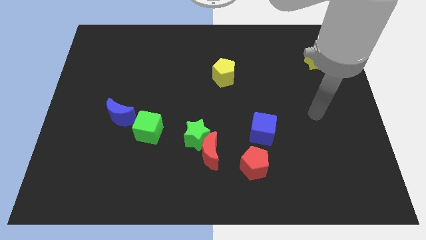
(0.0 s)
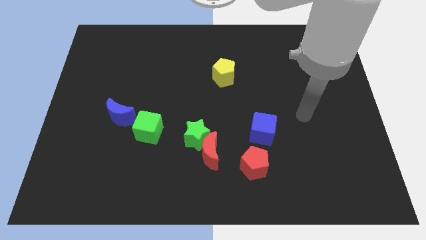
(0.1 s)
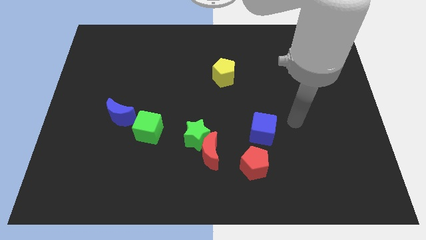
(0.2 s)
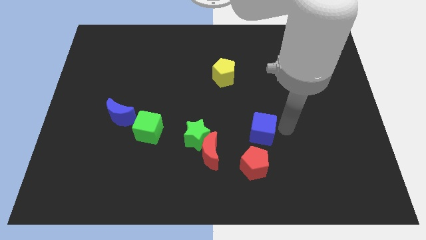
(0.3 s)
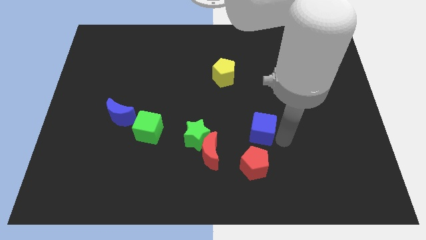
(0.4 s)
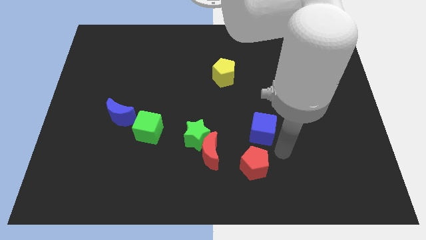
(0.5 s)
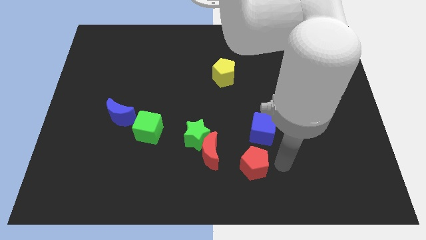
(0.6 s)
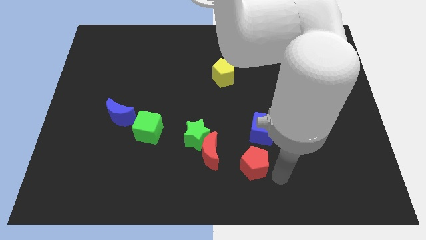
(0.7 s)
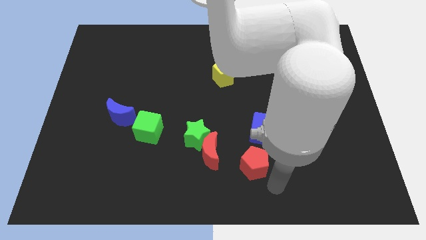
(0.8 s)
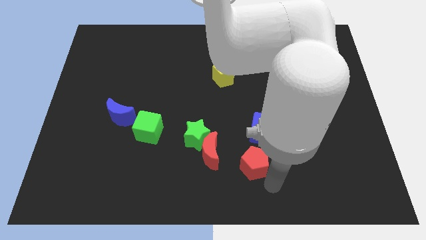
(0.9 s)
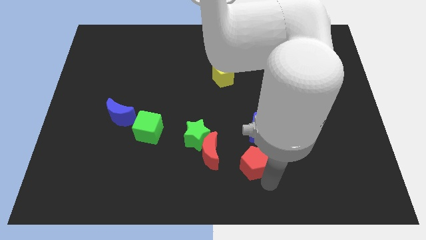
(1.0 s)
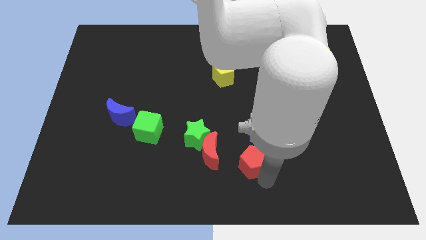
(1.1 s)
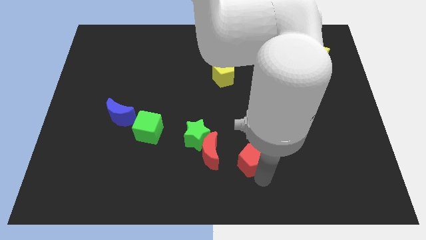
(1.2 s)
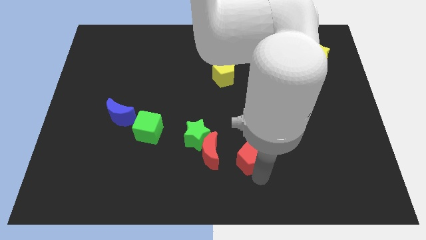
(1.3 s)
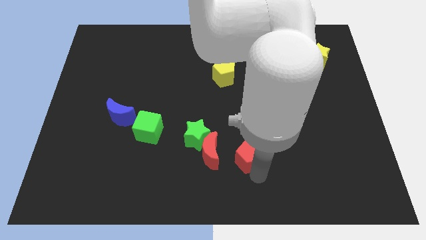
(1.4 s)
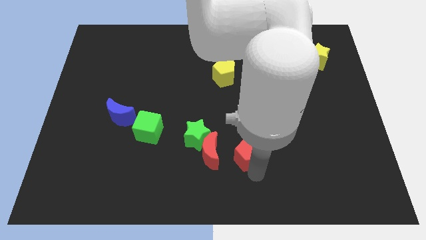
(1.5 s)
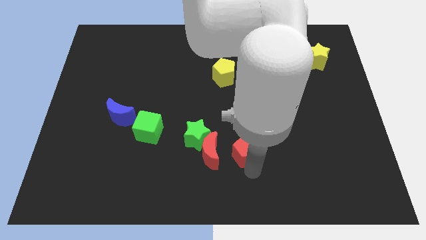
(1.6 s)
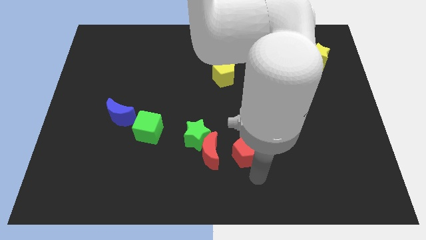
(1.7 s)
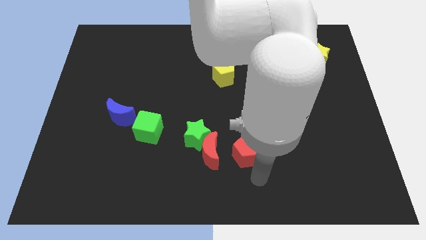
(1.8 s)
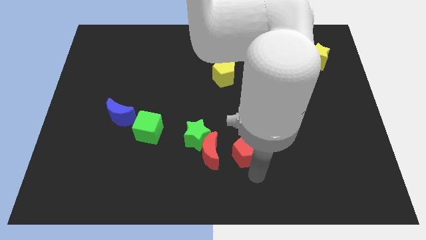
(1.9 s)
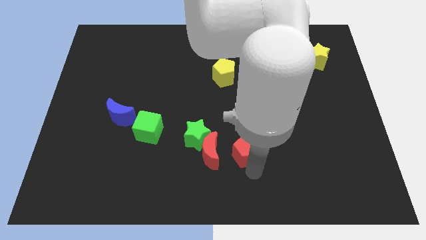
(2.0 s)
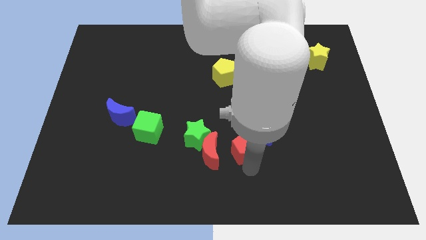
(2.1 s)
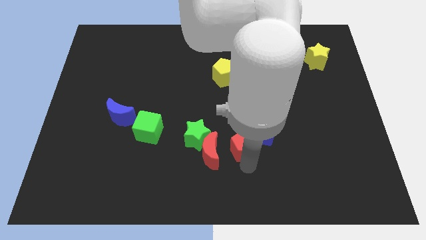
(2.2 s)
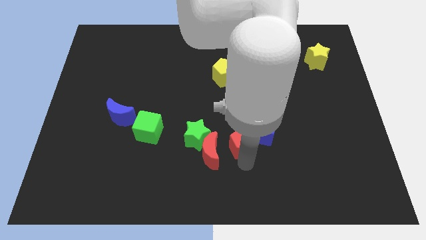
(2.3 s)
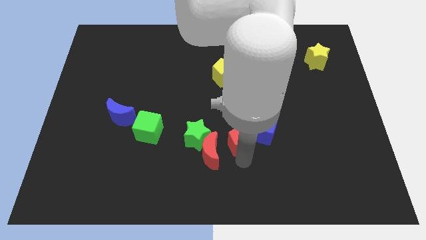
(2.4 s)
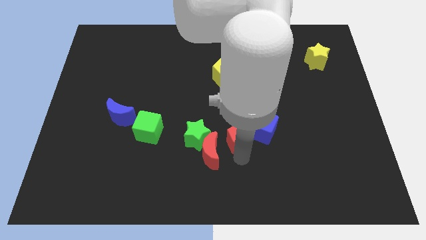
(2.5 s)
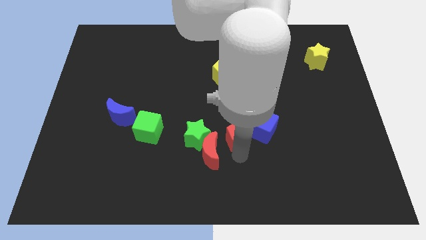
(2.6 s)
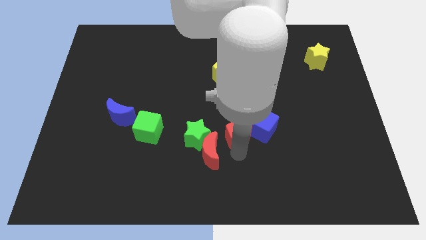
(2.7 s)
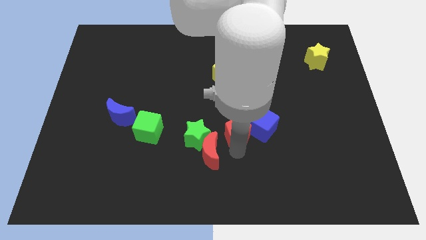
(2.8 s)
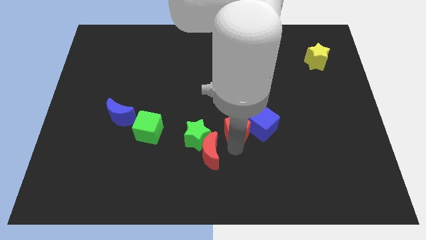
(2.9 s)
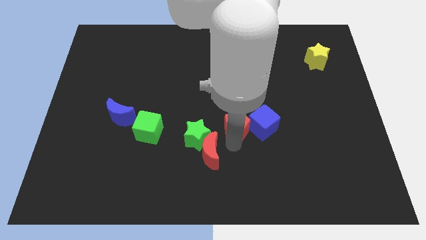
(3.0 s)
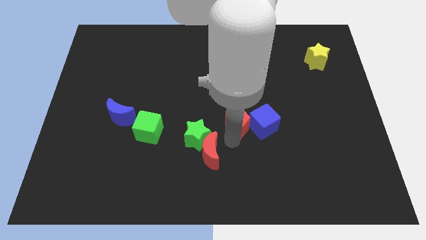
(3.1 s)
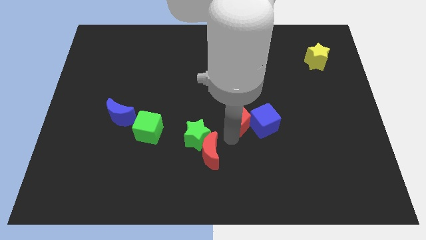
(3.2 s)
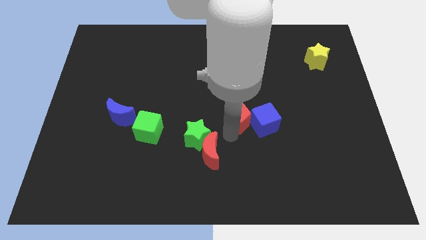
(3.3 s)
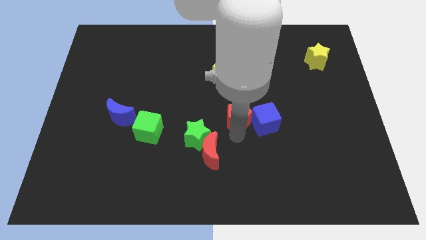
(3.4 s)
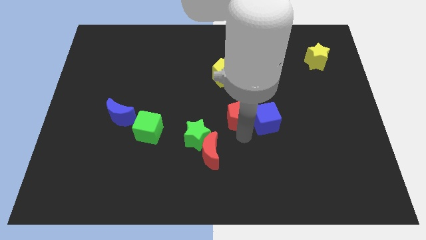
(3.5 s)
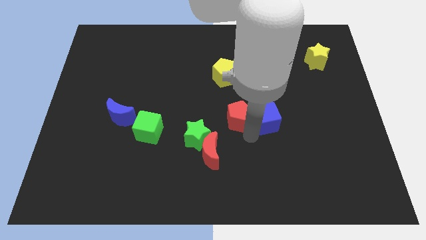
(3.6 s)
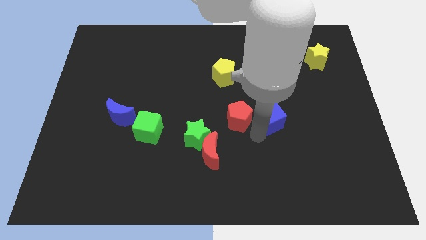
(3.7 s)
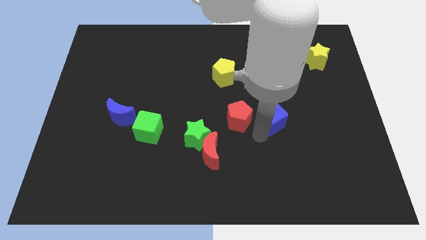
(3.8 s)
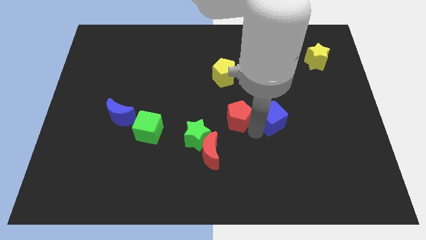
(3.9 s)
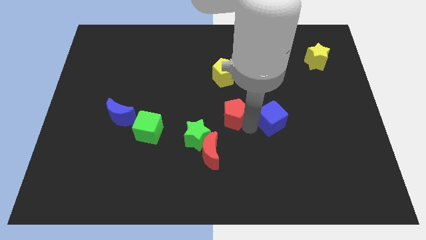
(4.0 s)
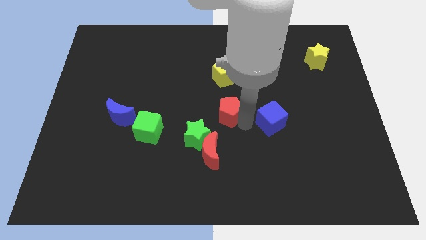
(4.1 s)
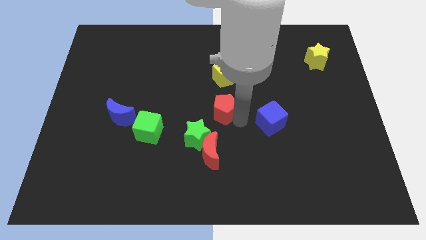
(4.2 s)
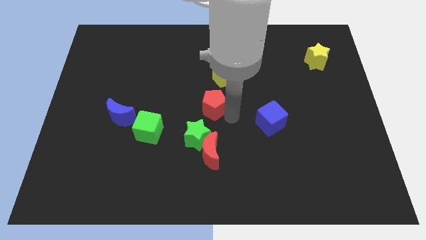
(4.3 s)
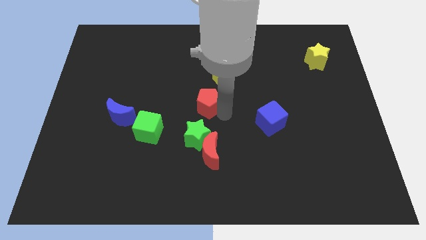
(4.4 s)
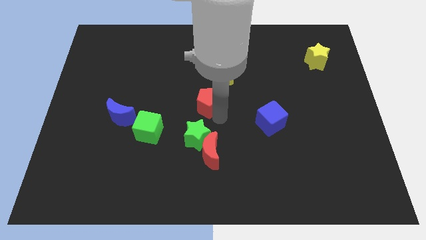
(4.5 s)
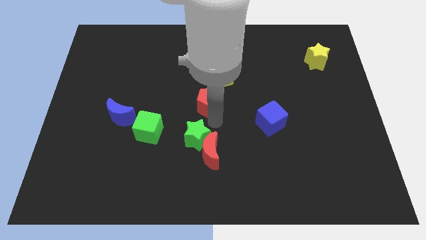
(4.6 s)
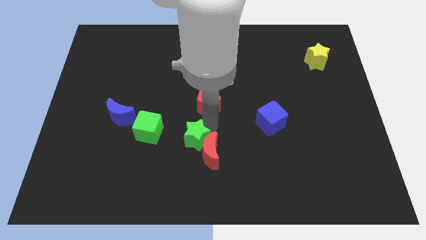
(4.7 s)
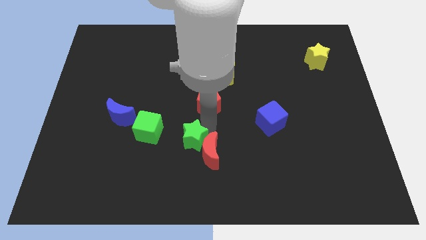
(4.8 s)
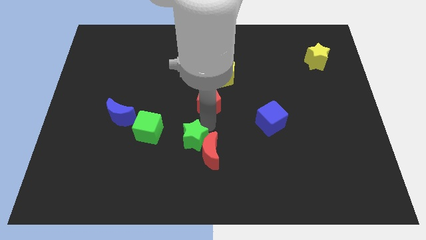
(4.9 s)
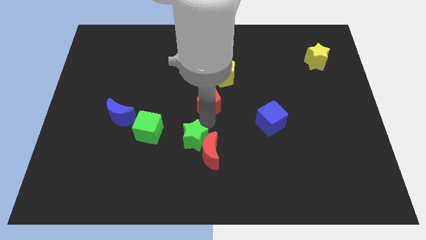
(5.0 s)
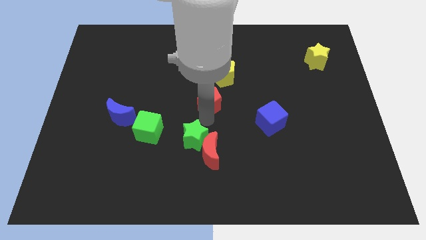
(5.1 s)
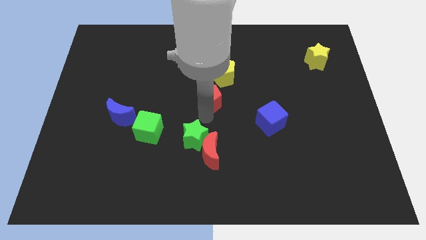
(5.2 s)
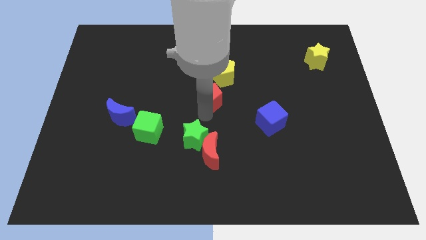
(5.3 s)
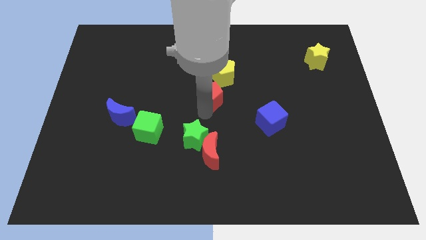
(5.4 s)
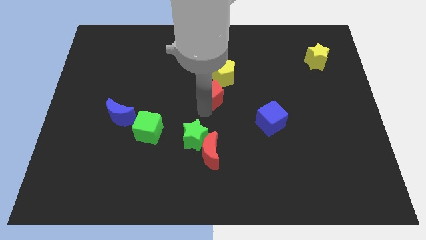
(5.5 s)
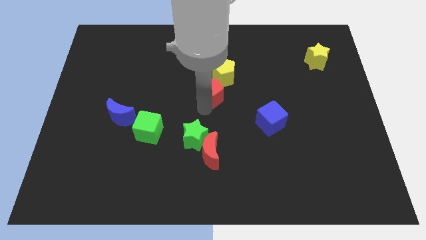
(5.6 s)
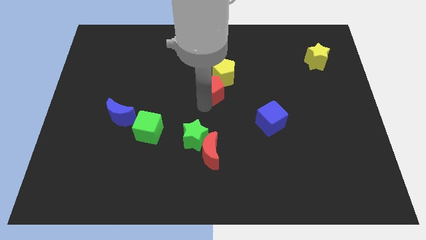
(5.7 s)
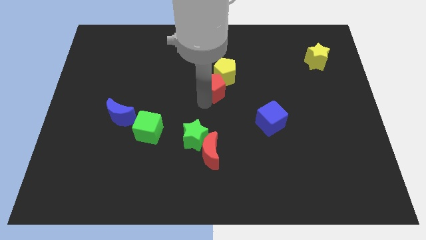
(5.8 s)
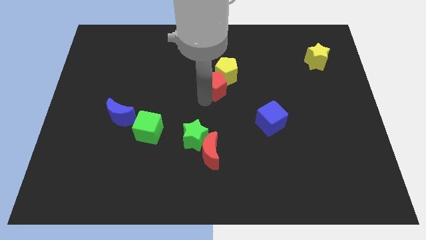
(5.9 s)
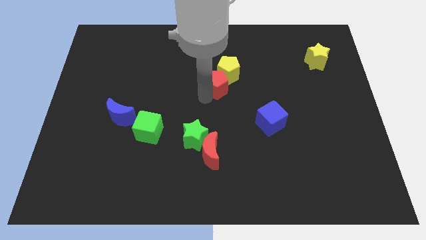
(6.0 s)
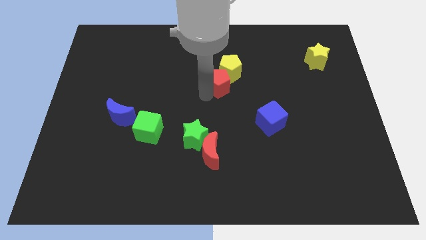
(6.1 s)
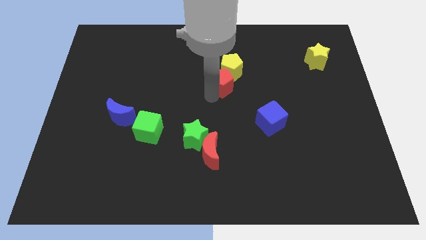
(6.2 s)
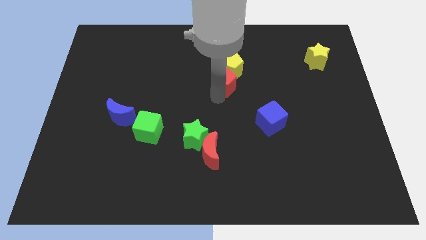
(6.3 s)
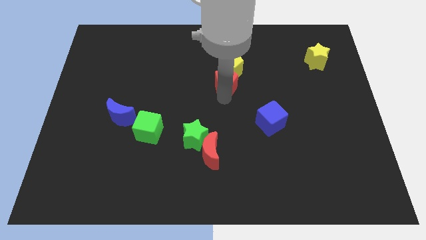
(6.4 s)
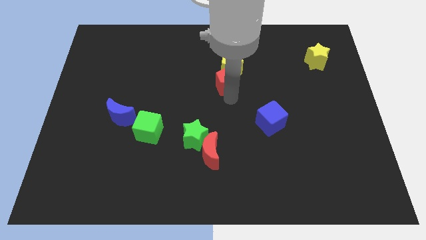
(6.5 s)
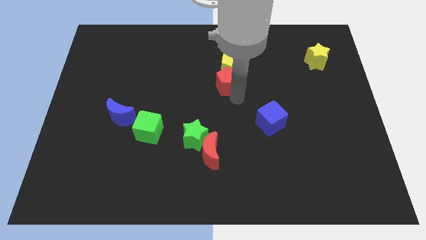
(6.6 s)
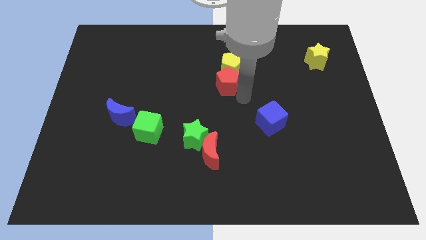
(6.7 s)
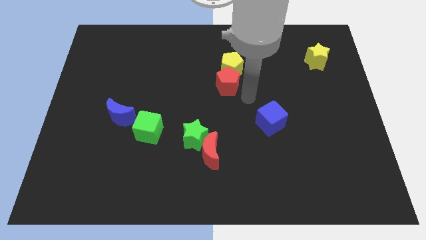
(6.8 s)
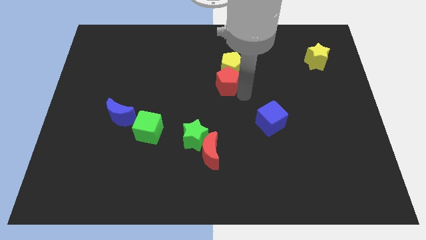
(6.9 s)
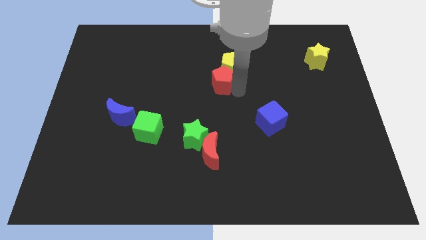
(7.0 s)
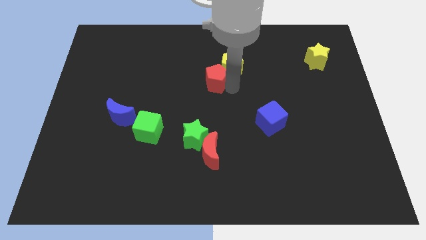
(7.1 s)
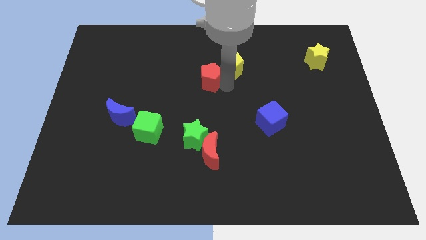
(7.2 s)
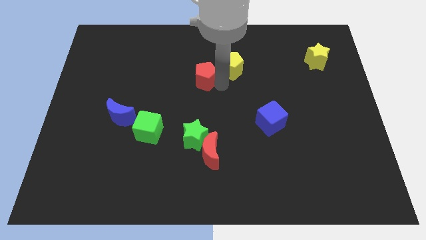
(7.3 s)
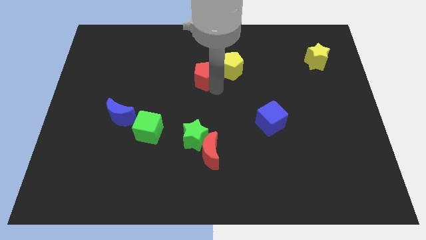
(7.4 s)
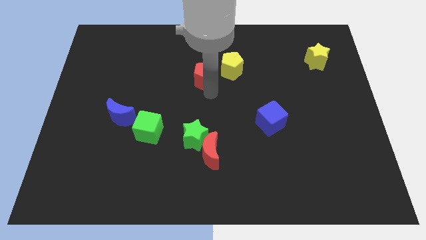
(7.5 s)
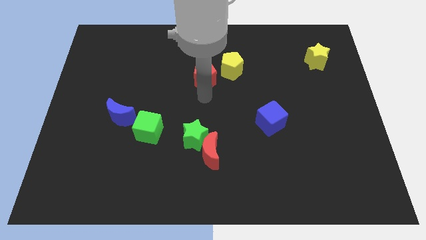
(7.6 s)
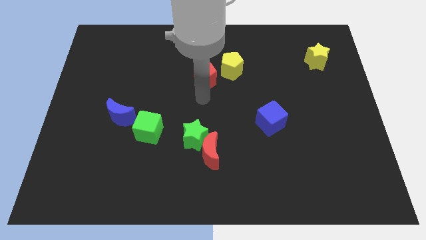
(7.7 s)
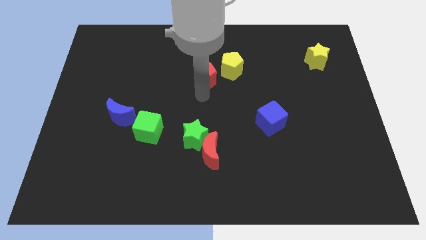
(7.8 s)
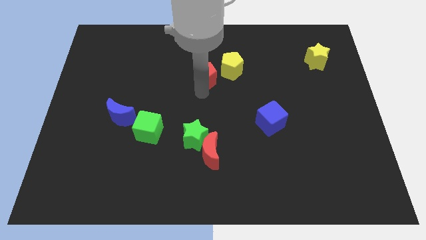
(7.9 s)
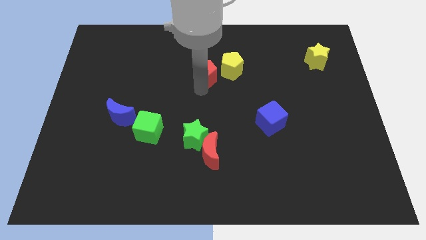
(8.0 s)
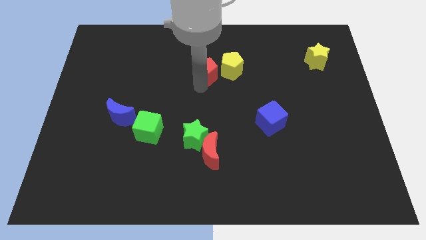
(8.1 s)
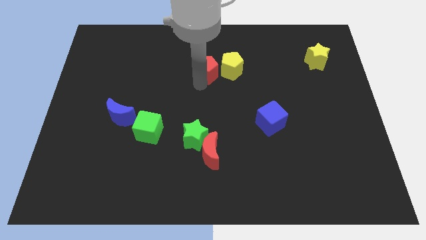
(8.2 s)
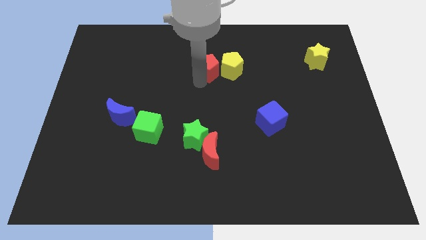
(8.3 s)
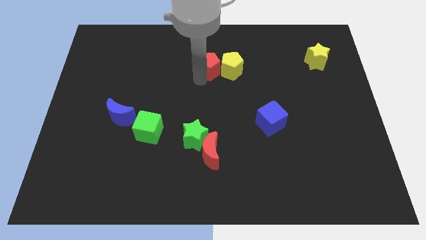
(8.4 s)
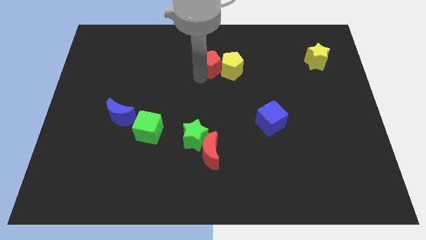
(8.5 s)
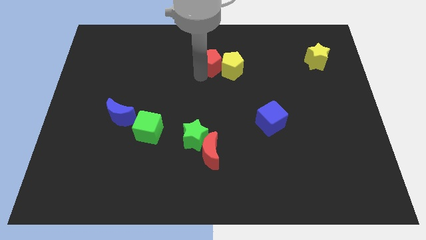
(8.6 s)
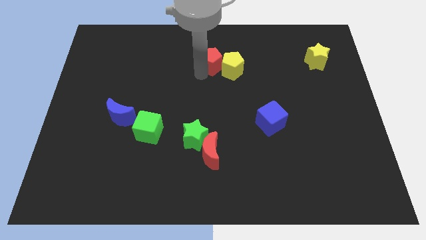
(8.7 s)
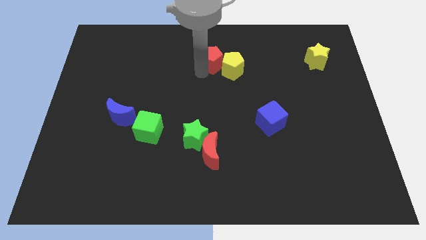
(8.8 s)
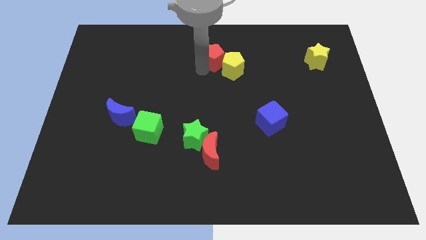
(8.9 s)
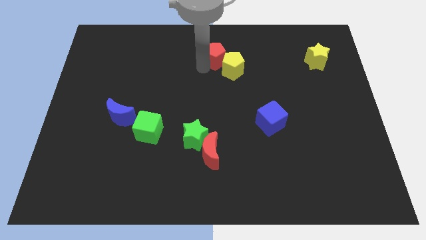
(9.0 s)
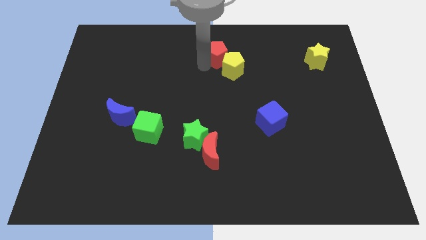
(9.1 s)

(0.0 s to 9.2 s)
move the red pentagon to the towards your base
